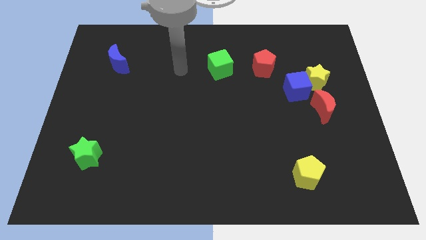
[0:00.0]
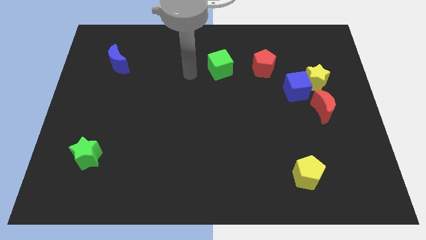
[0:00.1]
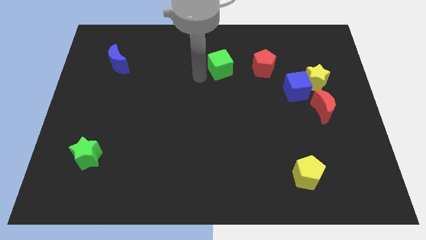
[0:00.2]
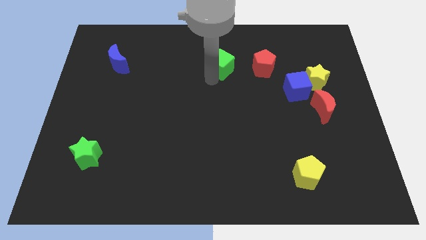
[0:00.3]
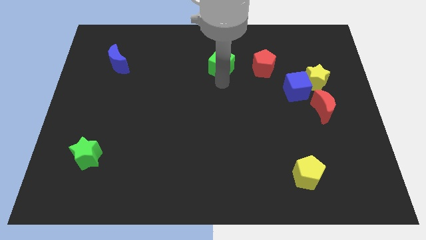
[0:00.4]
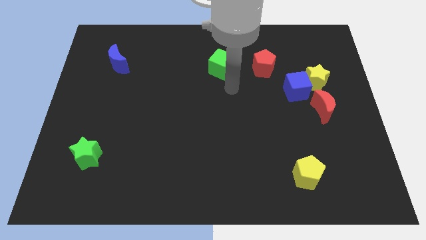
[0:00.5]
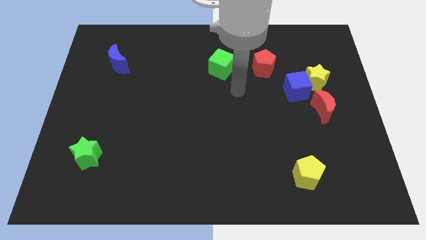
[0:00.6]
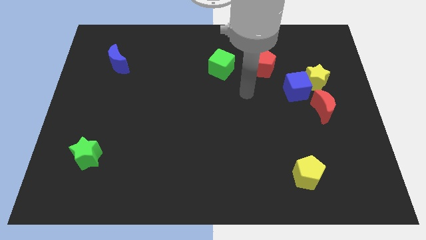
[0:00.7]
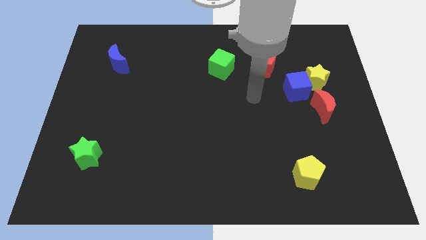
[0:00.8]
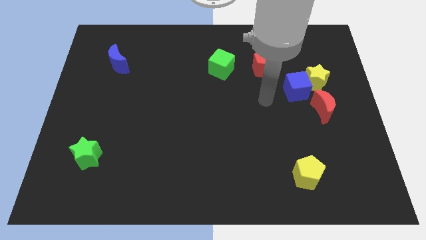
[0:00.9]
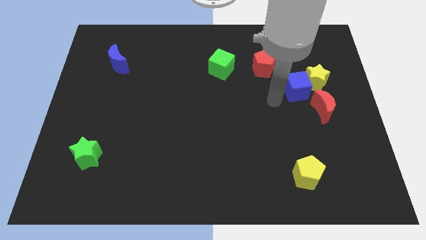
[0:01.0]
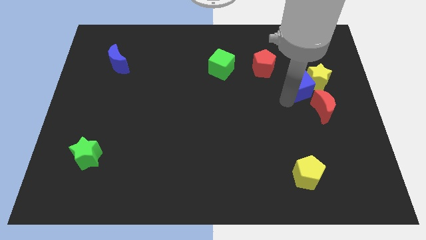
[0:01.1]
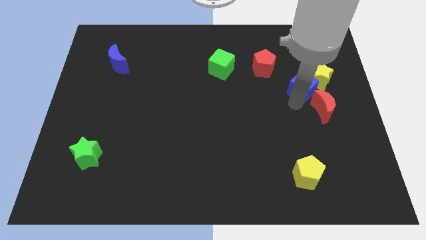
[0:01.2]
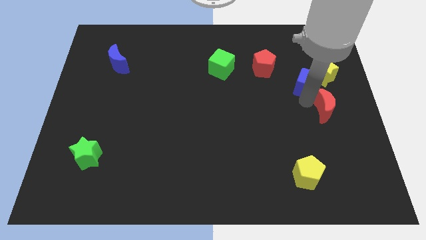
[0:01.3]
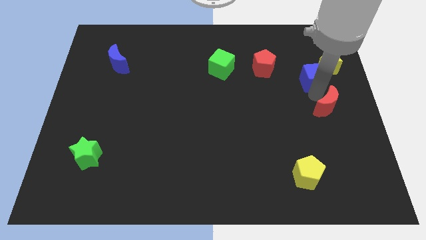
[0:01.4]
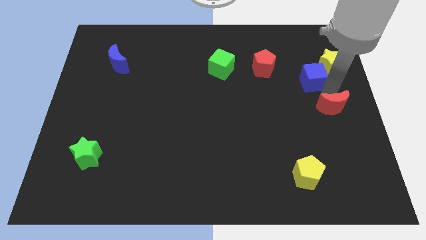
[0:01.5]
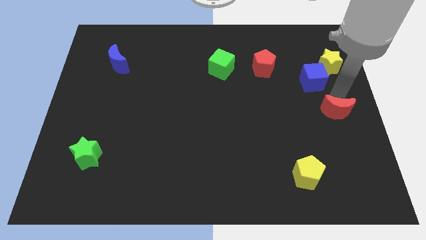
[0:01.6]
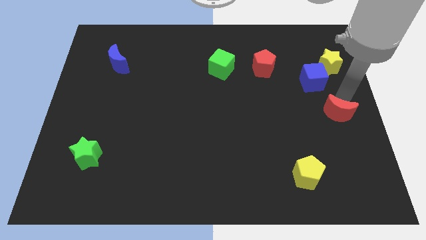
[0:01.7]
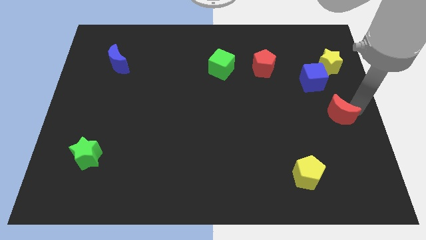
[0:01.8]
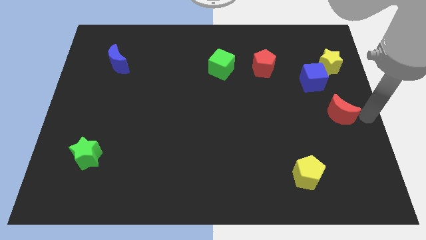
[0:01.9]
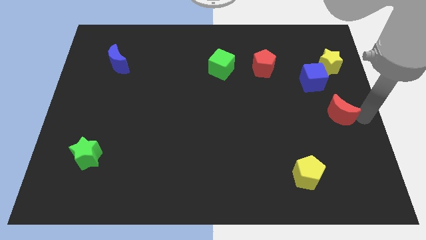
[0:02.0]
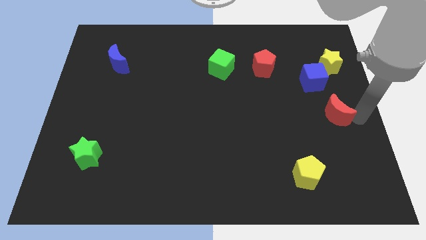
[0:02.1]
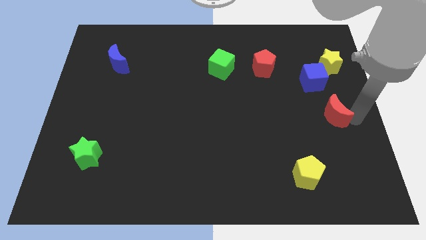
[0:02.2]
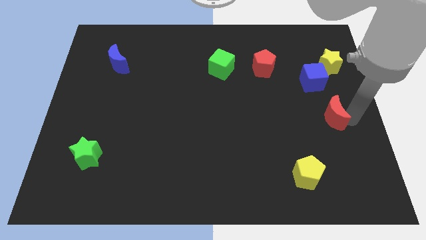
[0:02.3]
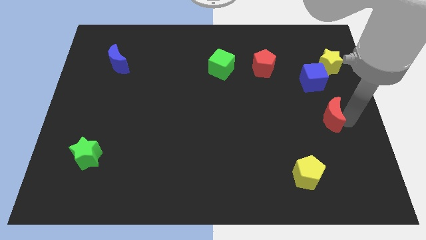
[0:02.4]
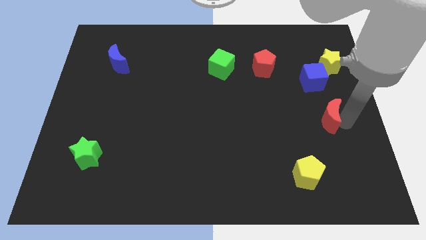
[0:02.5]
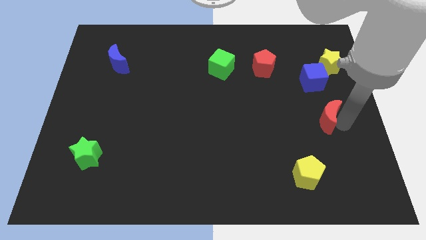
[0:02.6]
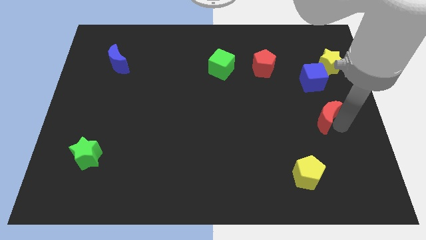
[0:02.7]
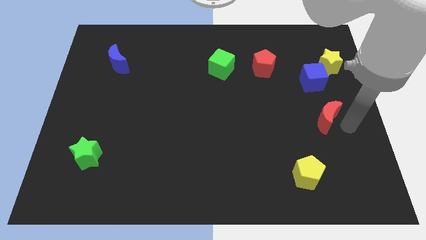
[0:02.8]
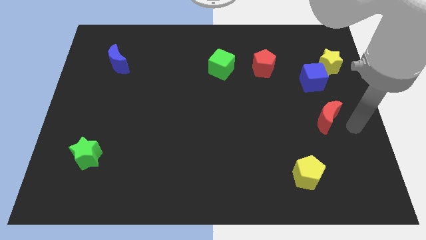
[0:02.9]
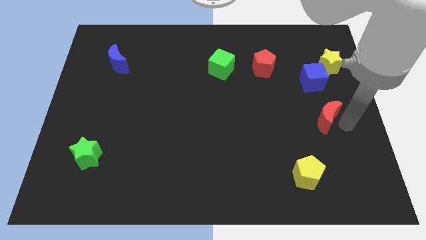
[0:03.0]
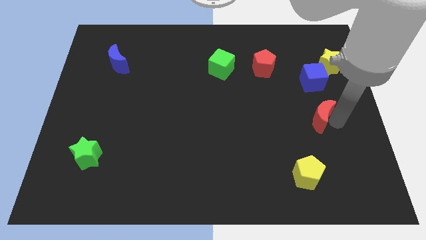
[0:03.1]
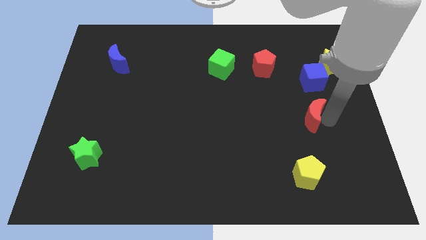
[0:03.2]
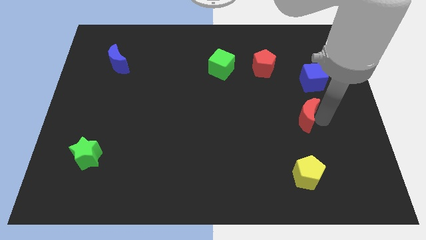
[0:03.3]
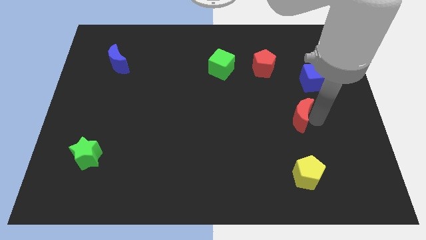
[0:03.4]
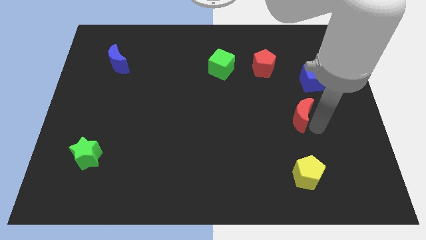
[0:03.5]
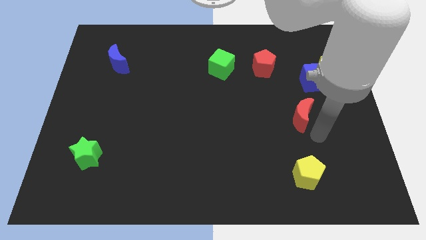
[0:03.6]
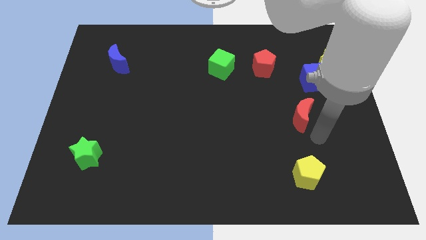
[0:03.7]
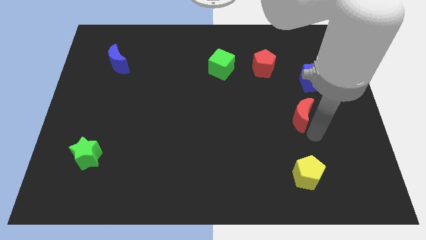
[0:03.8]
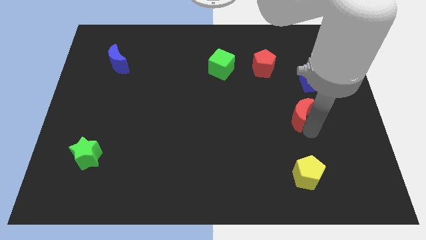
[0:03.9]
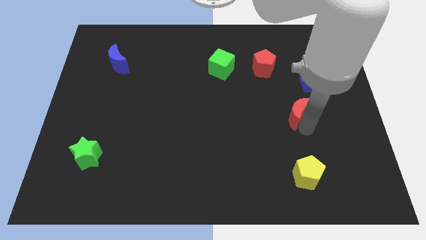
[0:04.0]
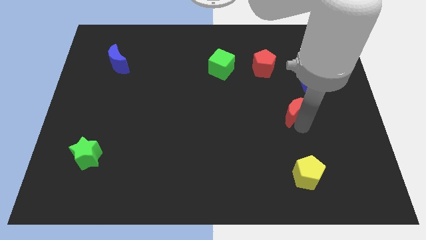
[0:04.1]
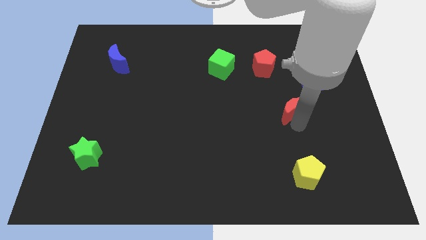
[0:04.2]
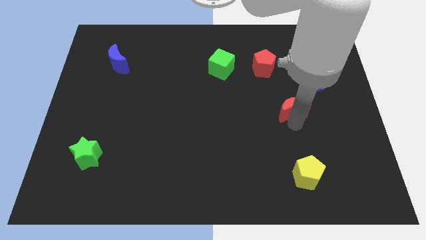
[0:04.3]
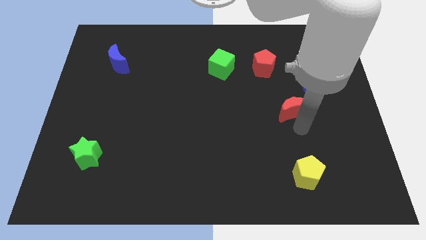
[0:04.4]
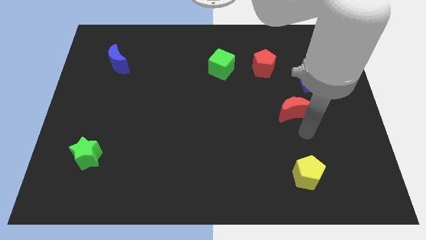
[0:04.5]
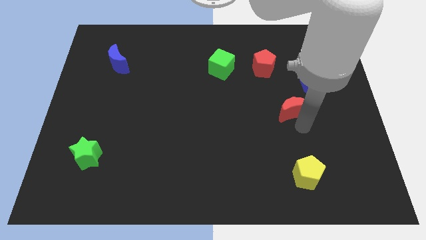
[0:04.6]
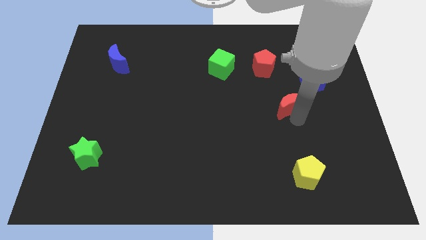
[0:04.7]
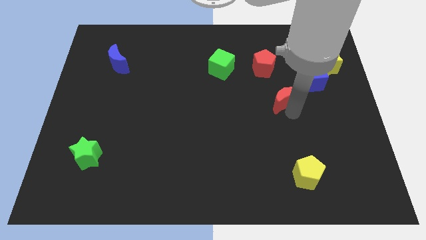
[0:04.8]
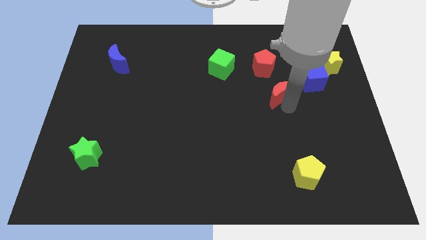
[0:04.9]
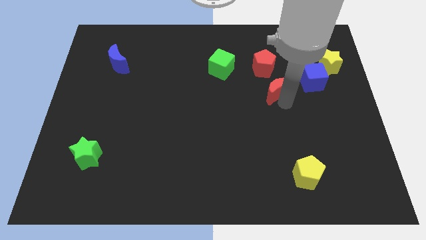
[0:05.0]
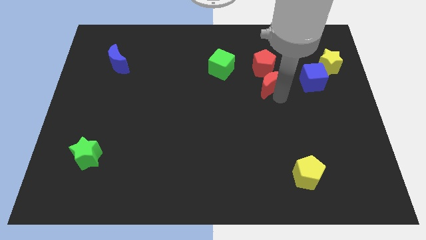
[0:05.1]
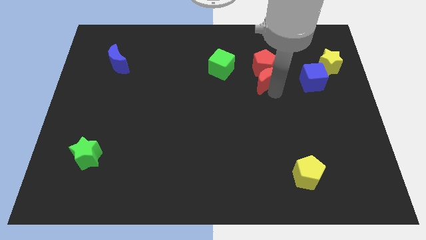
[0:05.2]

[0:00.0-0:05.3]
push the red moon close to the red pentagon
